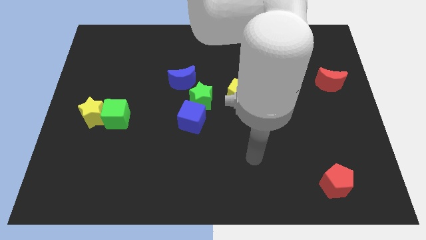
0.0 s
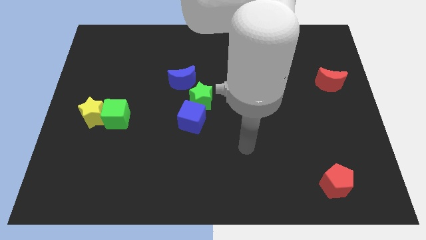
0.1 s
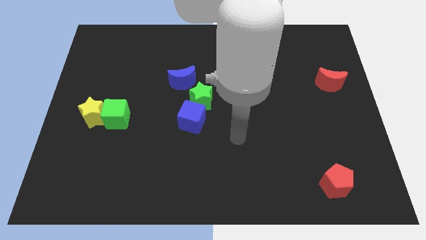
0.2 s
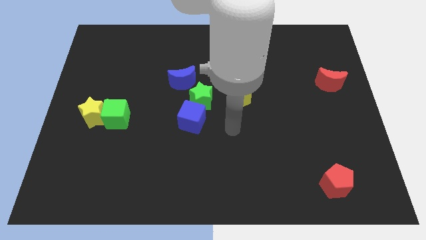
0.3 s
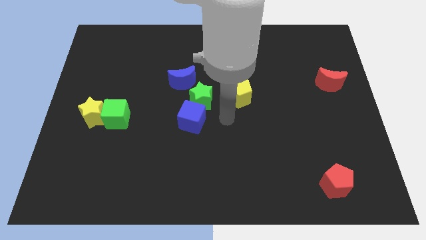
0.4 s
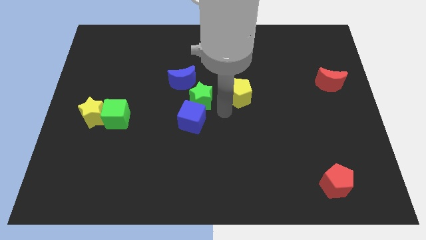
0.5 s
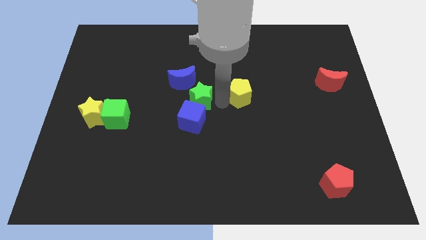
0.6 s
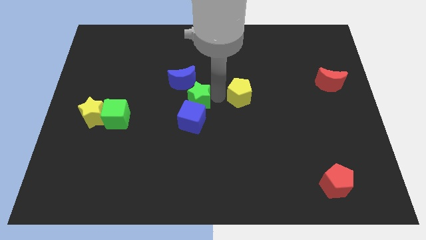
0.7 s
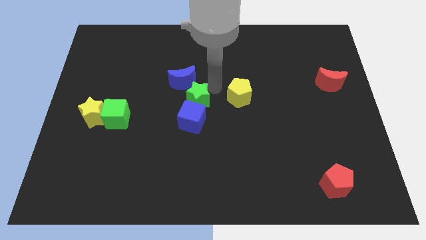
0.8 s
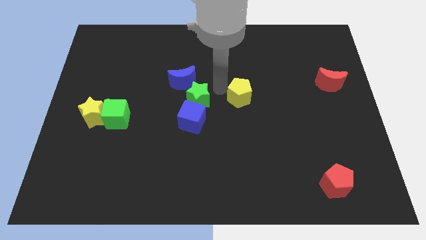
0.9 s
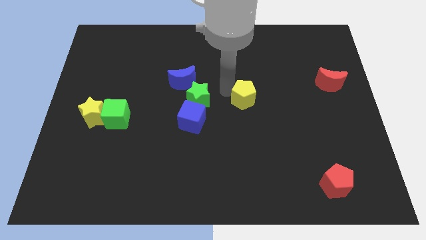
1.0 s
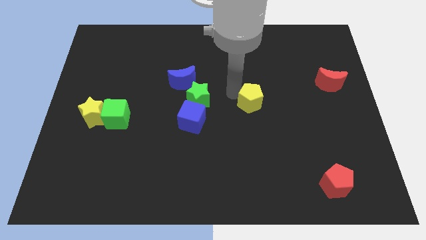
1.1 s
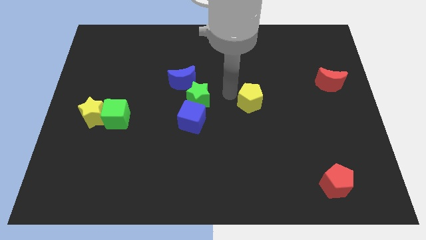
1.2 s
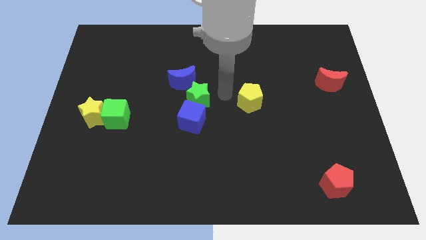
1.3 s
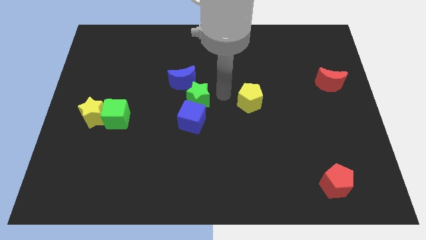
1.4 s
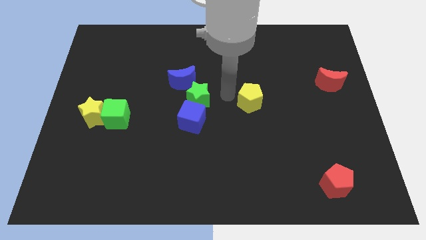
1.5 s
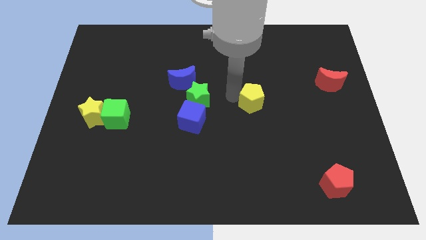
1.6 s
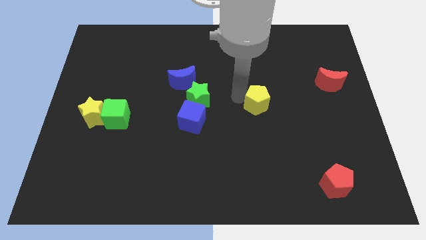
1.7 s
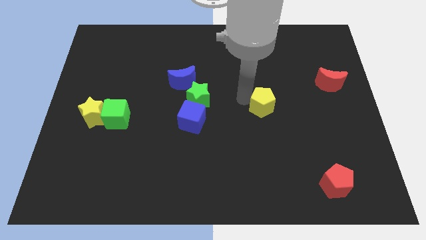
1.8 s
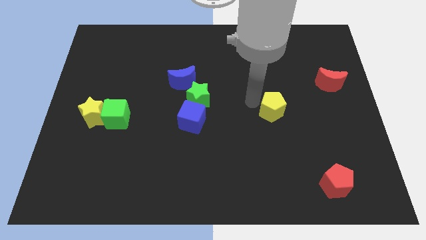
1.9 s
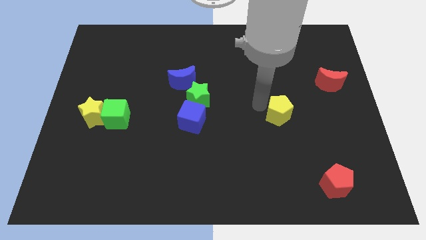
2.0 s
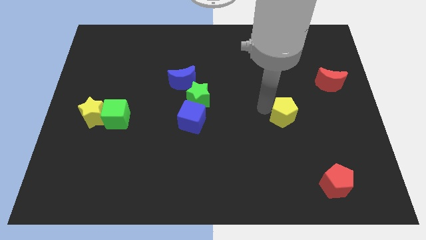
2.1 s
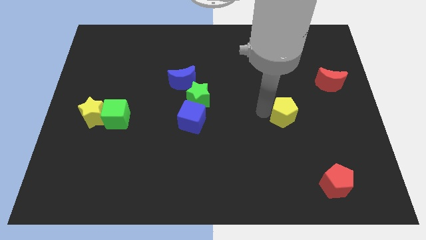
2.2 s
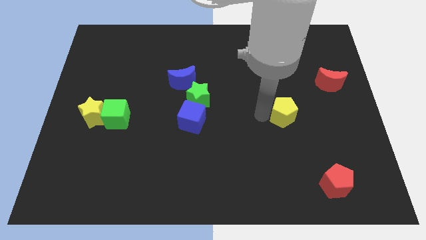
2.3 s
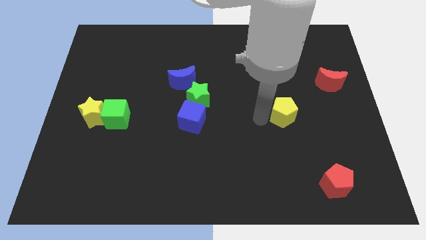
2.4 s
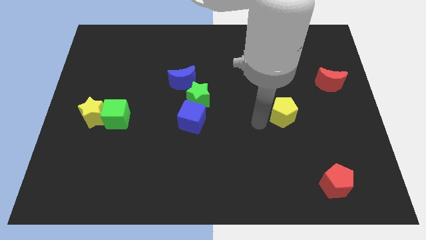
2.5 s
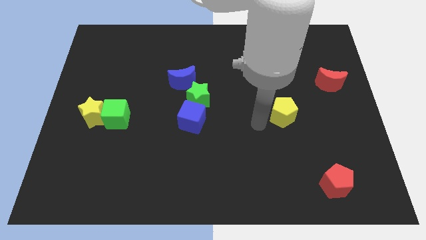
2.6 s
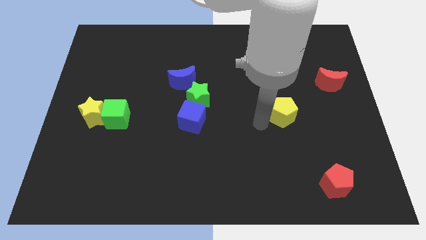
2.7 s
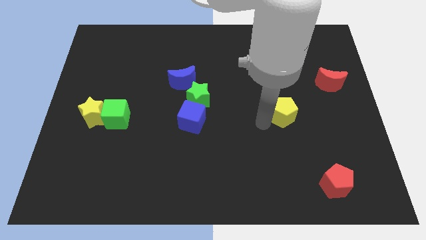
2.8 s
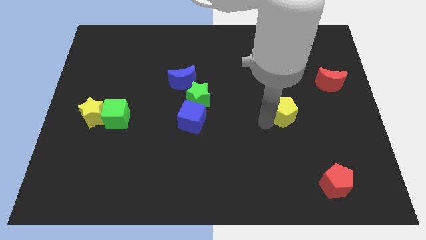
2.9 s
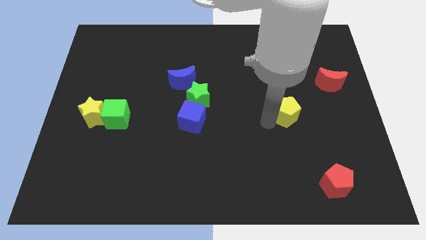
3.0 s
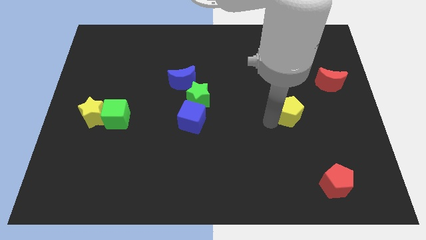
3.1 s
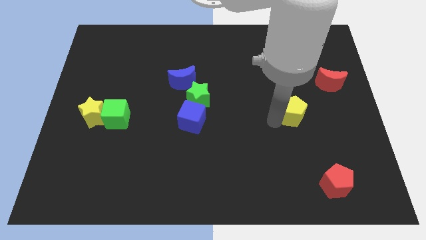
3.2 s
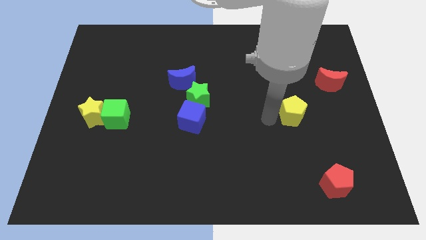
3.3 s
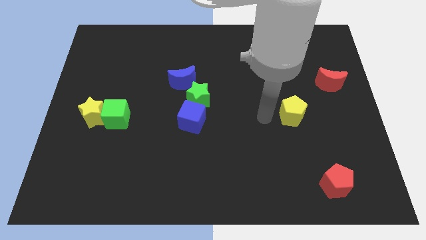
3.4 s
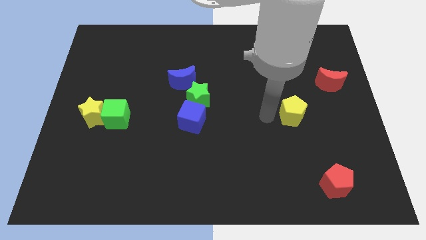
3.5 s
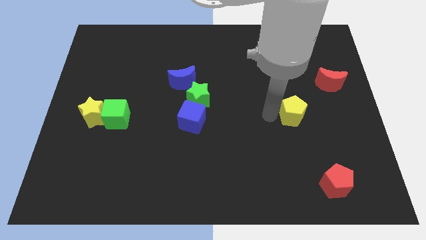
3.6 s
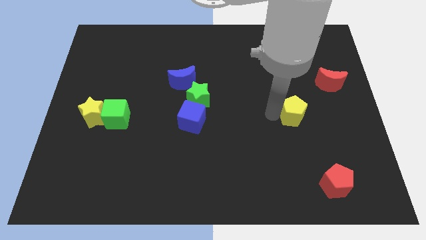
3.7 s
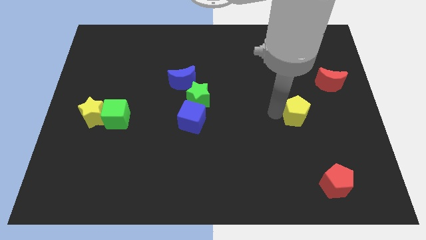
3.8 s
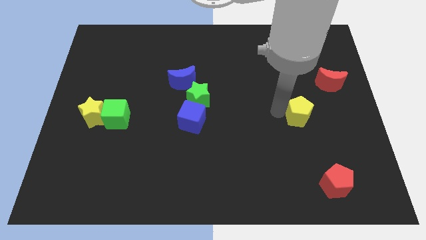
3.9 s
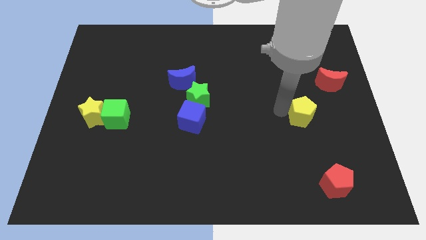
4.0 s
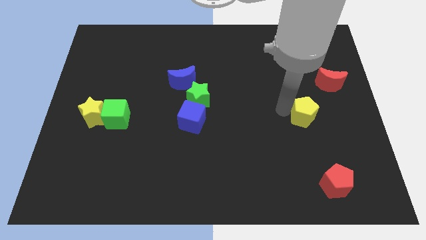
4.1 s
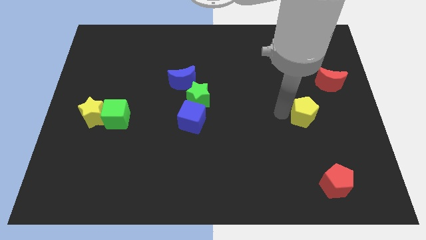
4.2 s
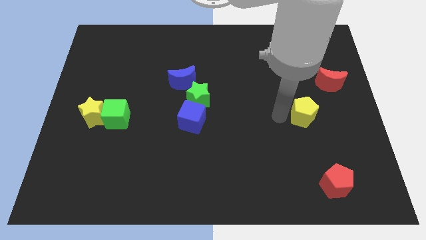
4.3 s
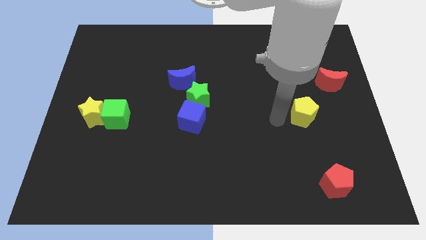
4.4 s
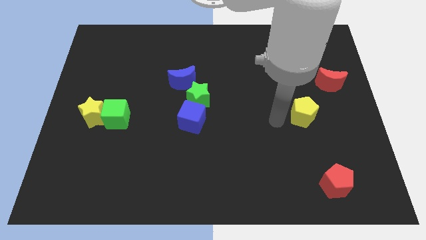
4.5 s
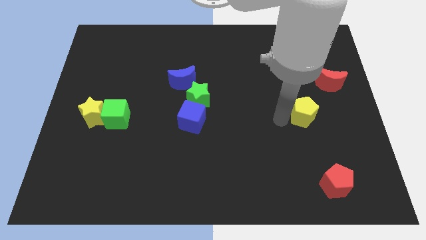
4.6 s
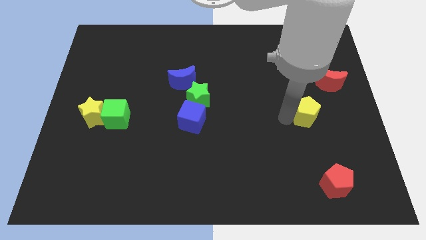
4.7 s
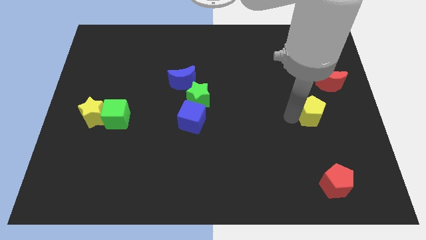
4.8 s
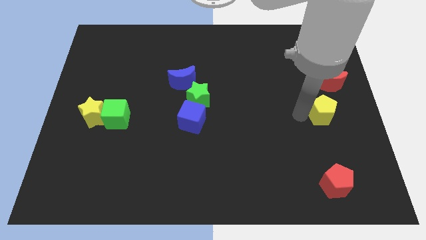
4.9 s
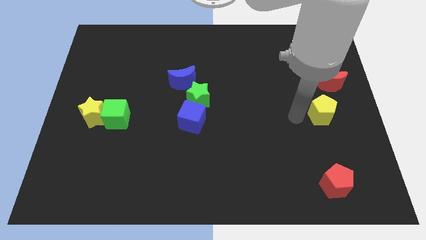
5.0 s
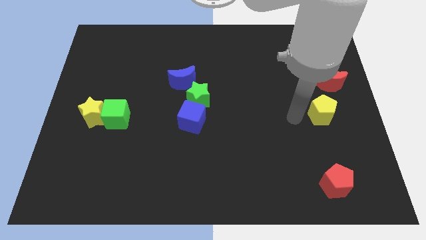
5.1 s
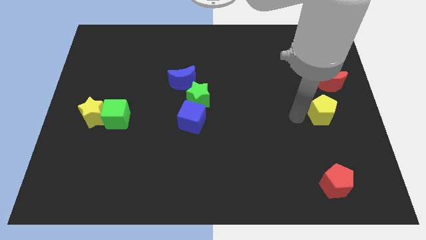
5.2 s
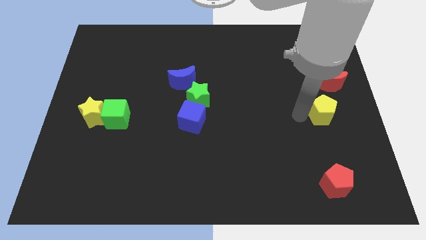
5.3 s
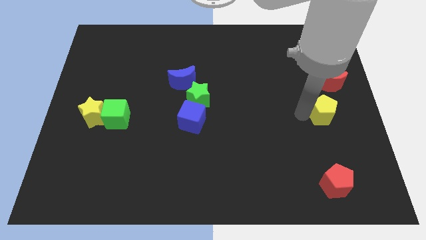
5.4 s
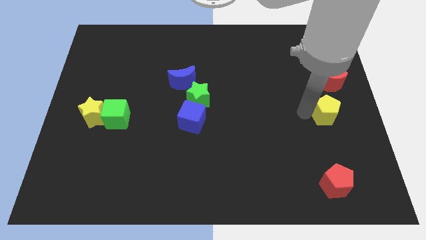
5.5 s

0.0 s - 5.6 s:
push the yellow pentagon to the right side of the board

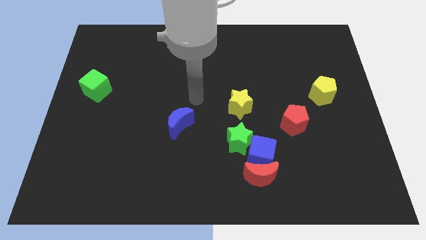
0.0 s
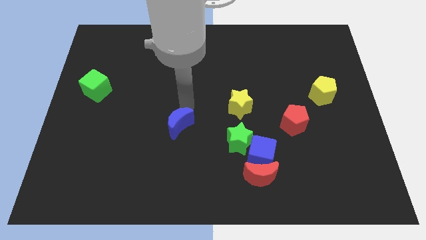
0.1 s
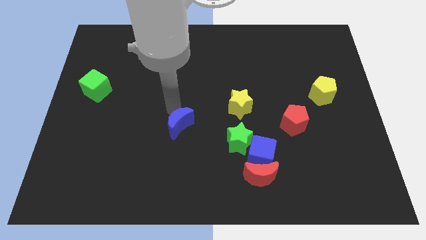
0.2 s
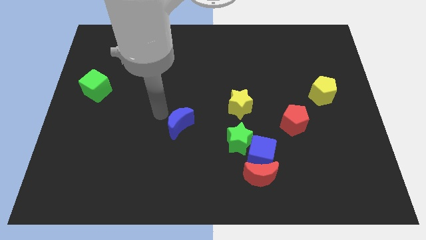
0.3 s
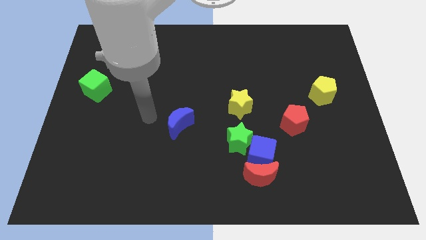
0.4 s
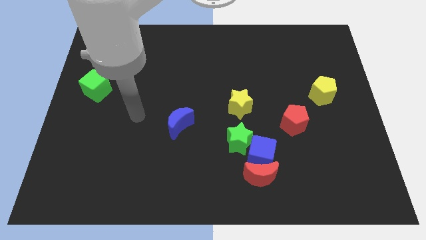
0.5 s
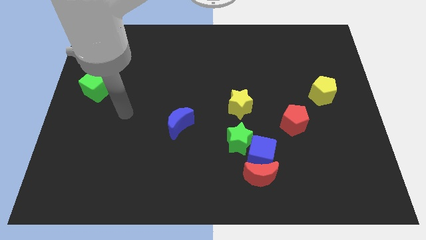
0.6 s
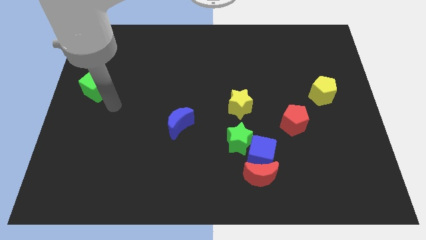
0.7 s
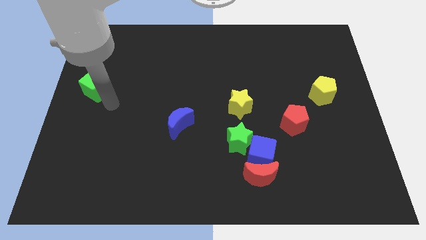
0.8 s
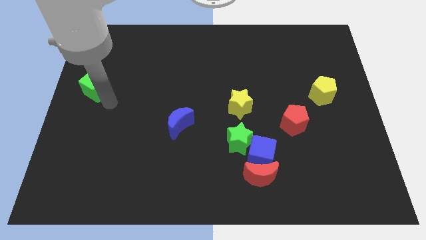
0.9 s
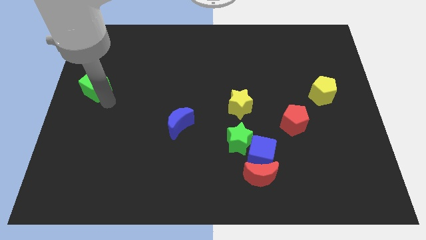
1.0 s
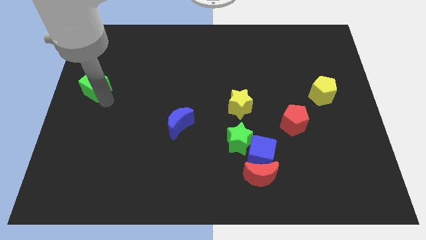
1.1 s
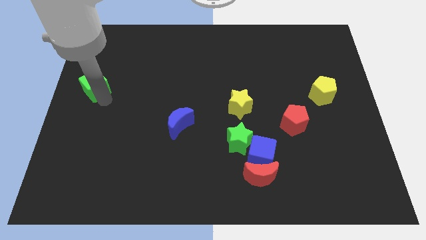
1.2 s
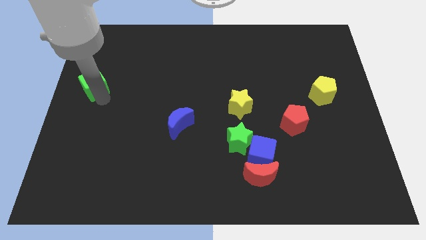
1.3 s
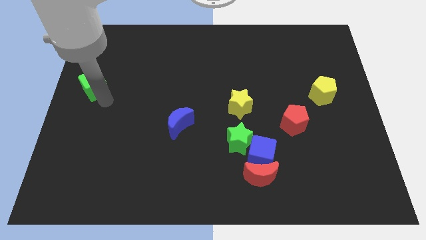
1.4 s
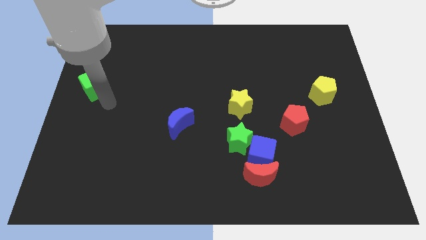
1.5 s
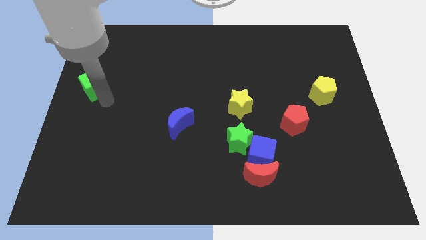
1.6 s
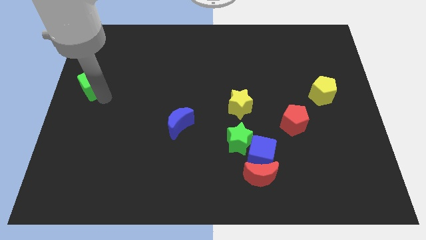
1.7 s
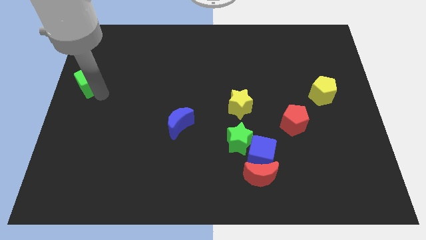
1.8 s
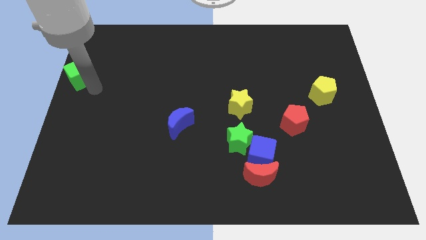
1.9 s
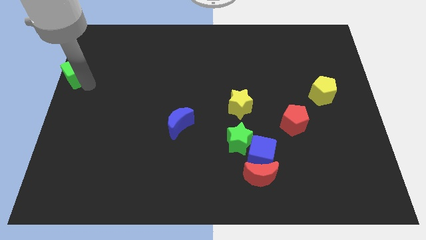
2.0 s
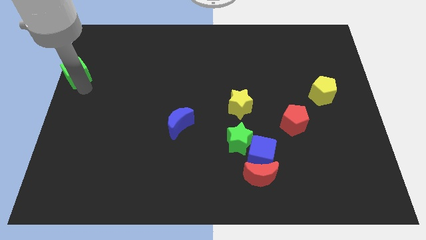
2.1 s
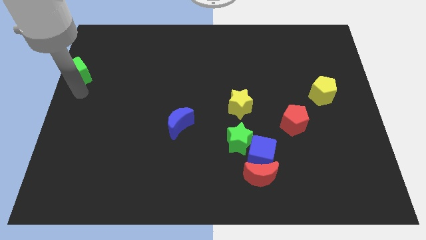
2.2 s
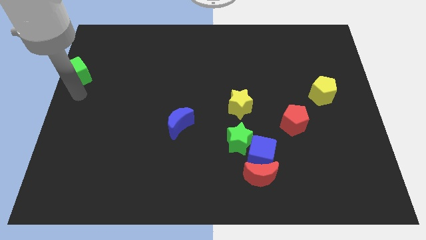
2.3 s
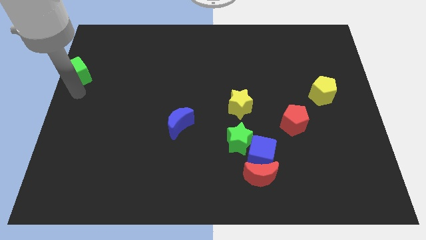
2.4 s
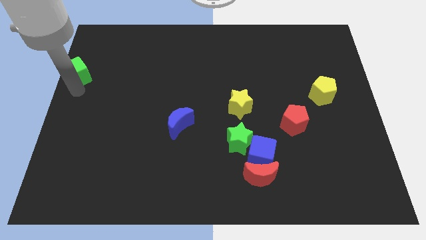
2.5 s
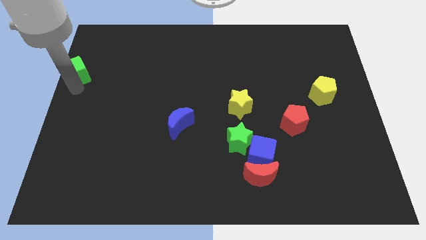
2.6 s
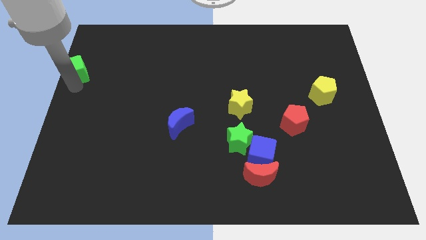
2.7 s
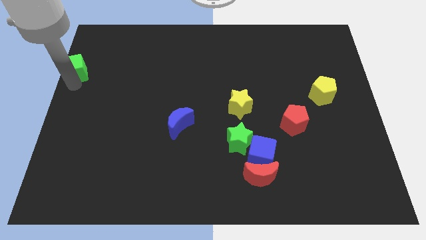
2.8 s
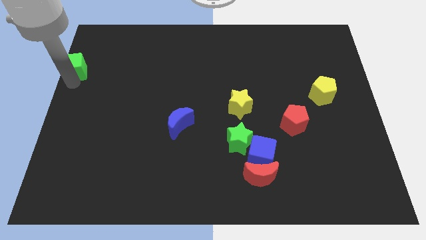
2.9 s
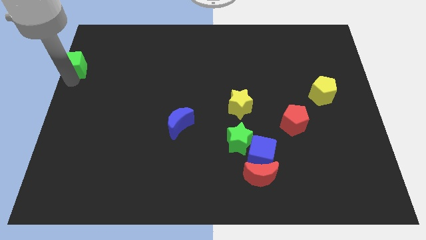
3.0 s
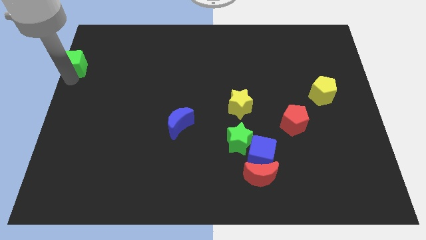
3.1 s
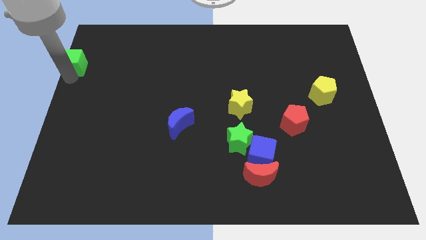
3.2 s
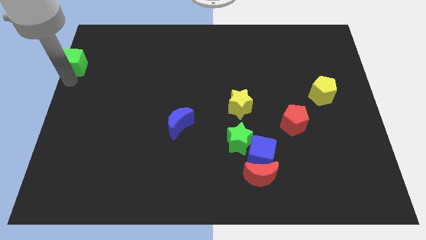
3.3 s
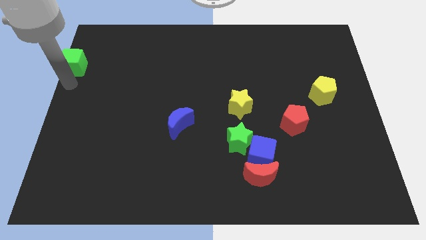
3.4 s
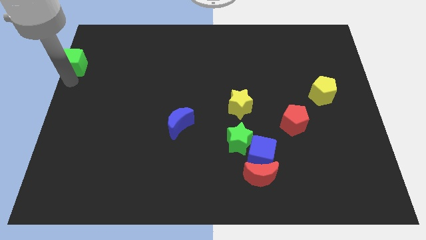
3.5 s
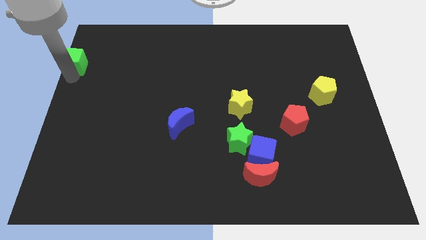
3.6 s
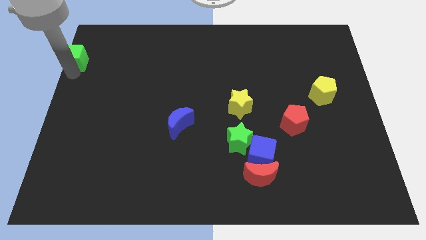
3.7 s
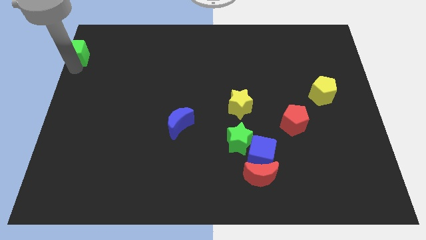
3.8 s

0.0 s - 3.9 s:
push the green cube to the top left of the board
